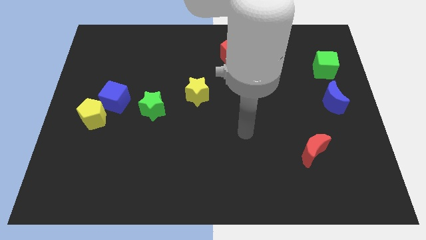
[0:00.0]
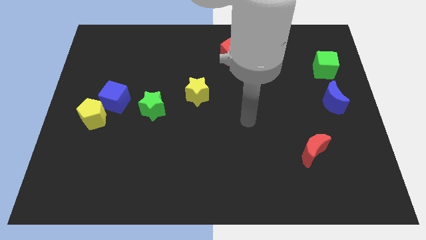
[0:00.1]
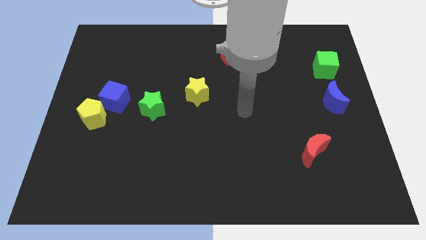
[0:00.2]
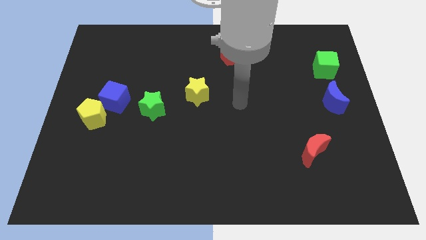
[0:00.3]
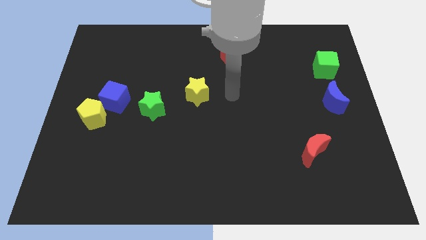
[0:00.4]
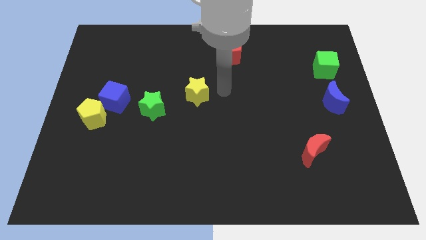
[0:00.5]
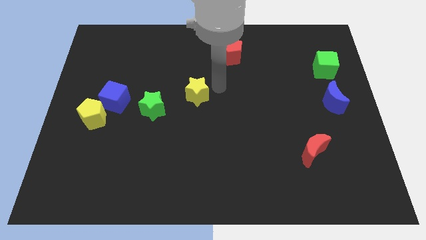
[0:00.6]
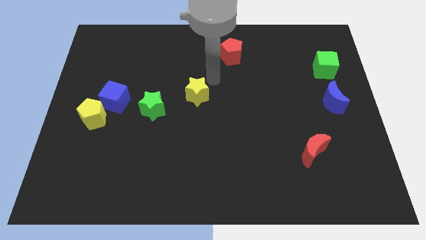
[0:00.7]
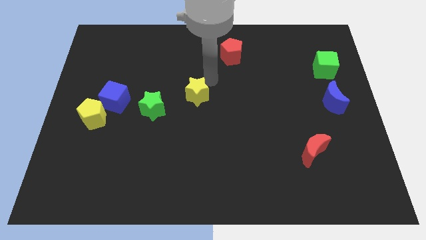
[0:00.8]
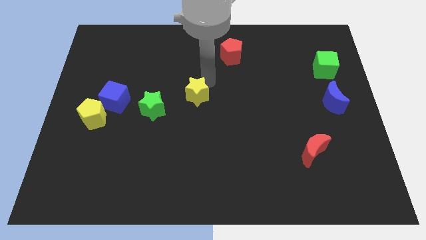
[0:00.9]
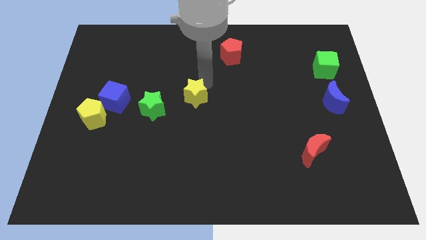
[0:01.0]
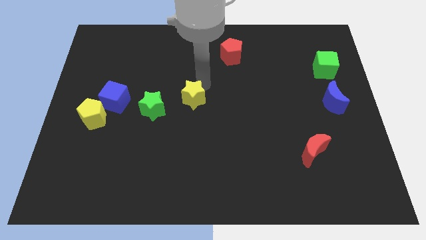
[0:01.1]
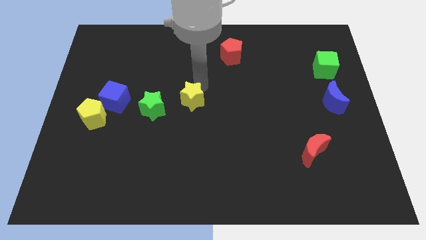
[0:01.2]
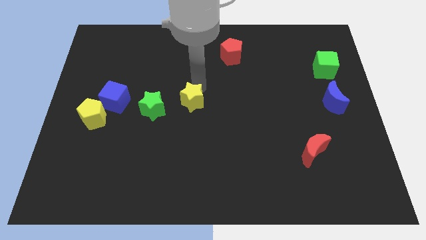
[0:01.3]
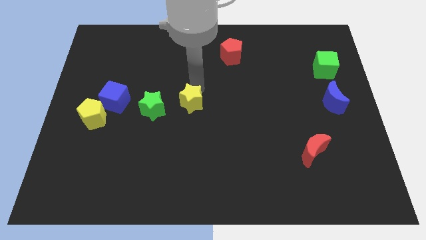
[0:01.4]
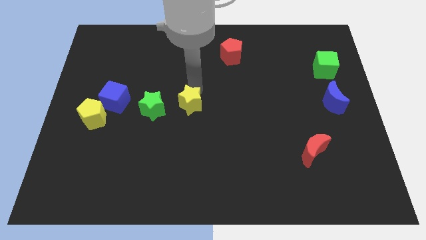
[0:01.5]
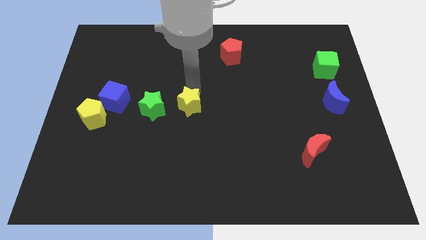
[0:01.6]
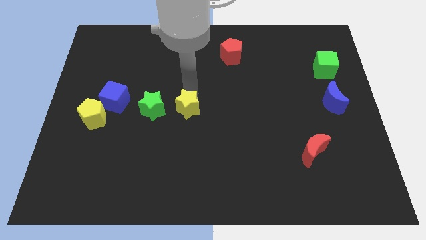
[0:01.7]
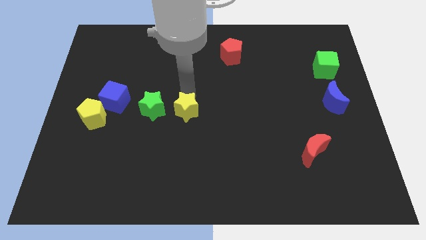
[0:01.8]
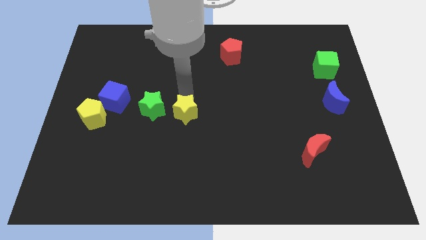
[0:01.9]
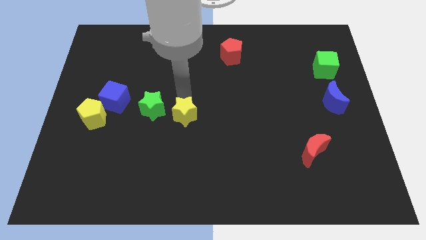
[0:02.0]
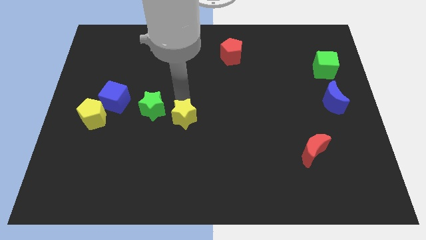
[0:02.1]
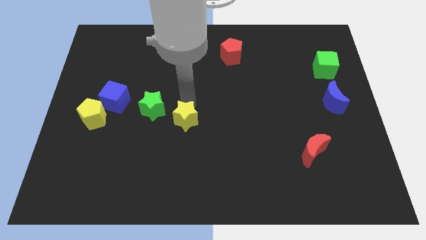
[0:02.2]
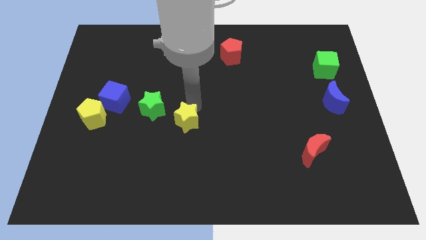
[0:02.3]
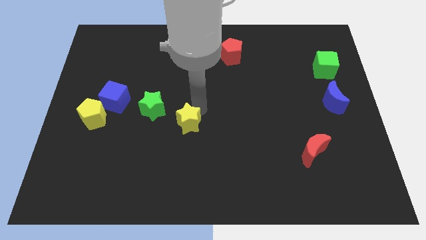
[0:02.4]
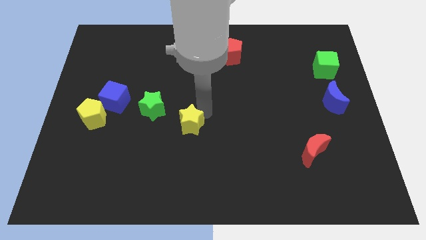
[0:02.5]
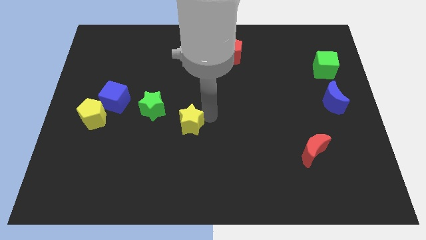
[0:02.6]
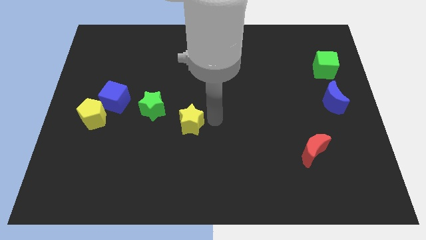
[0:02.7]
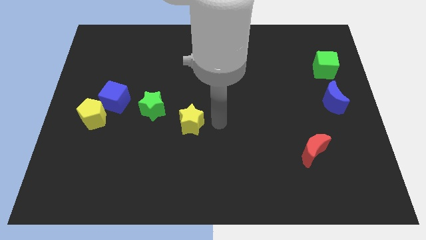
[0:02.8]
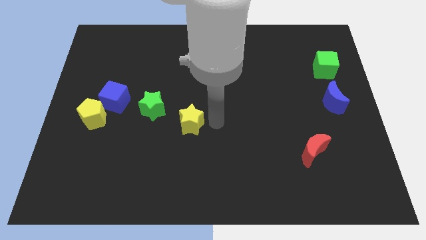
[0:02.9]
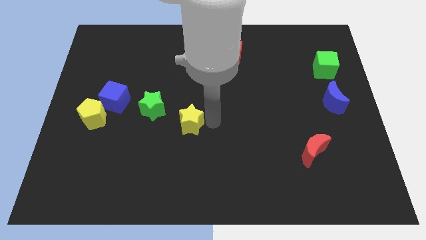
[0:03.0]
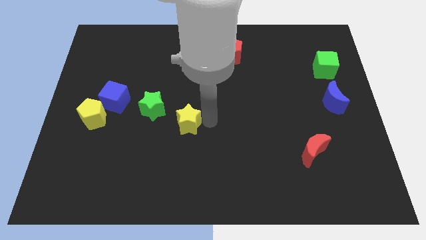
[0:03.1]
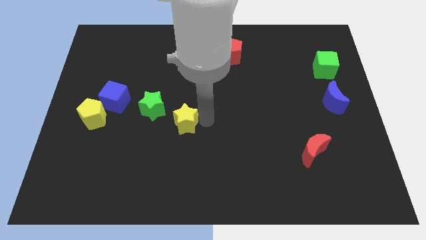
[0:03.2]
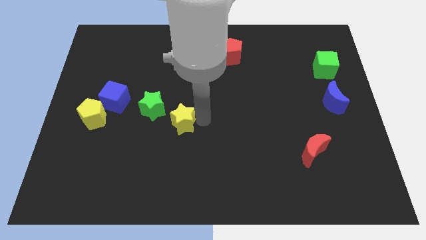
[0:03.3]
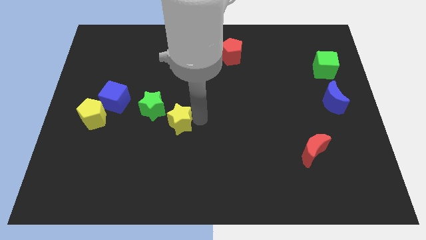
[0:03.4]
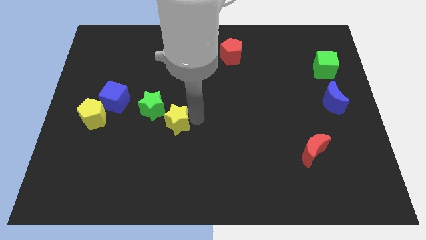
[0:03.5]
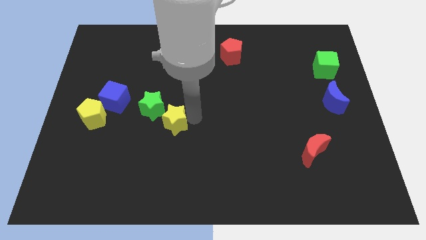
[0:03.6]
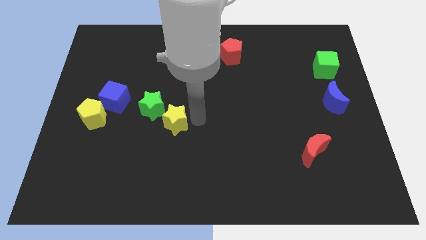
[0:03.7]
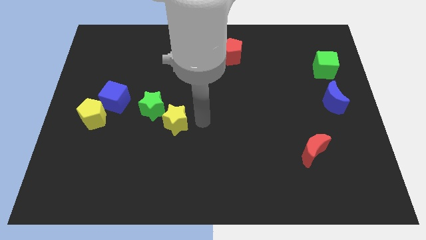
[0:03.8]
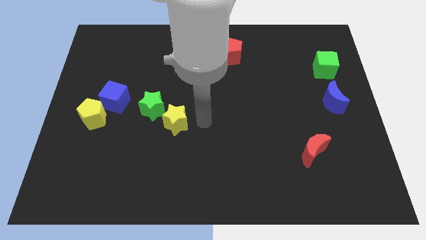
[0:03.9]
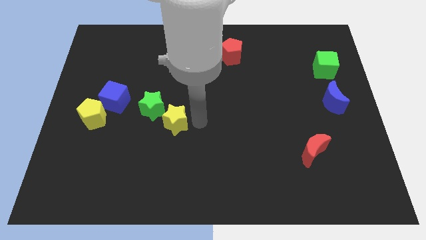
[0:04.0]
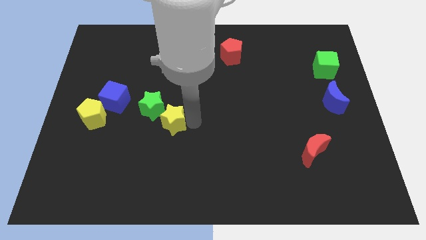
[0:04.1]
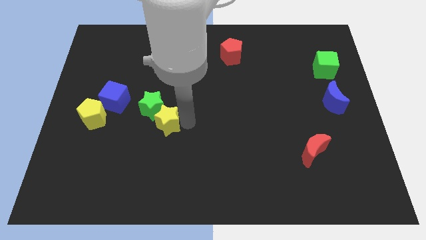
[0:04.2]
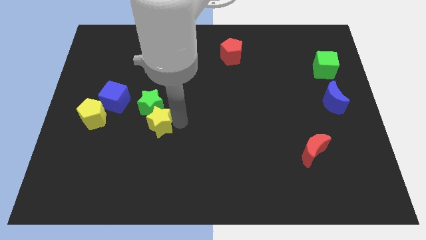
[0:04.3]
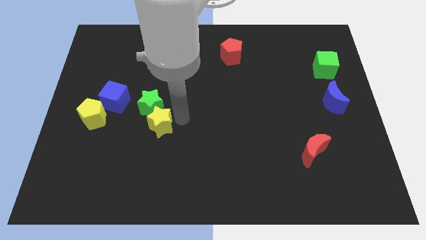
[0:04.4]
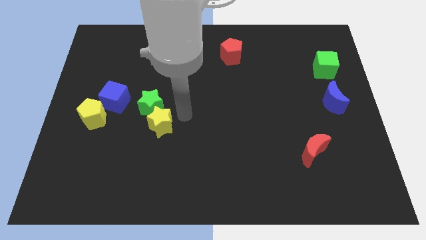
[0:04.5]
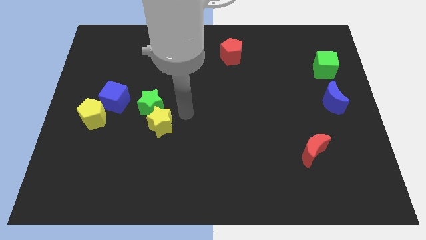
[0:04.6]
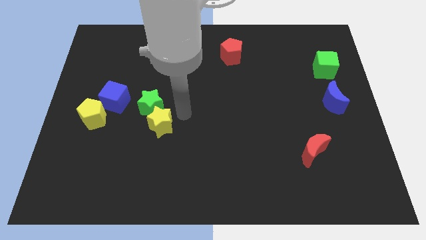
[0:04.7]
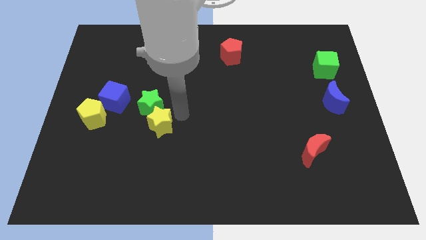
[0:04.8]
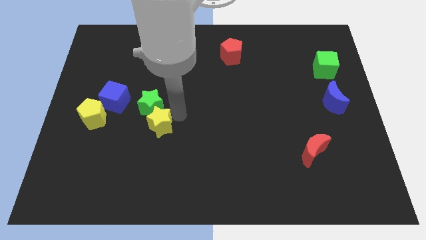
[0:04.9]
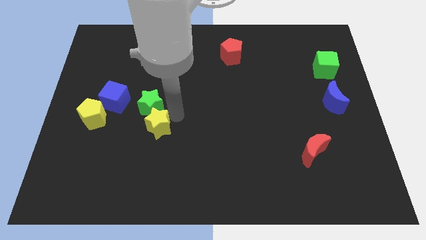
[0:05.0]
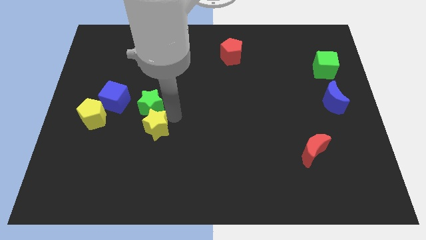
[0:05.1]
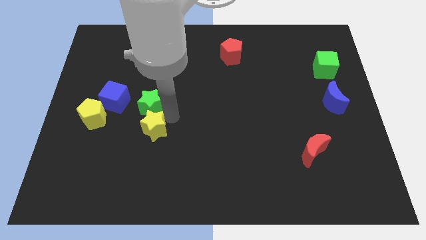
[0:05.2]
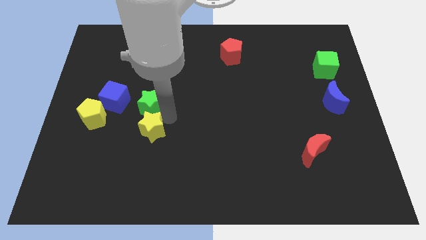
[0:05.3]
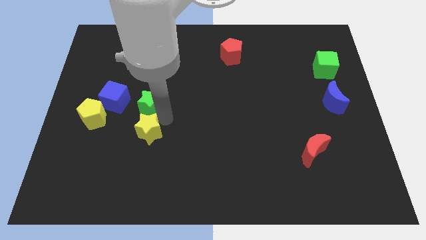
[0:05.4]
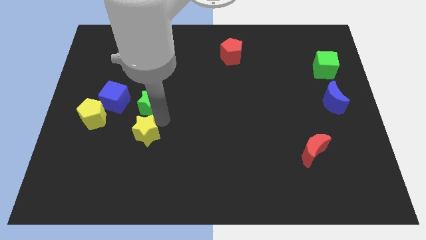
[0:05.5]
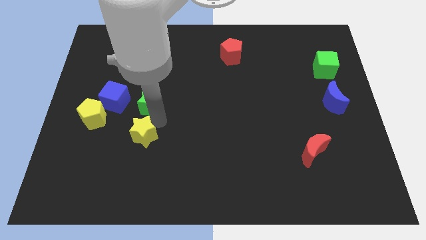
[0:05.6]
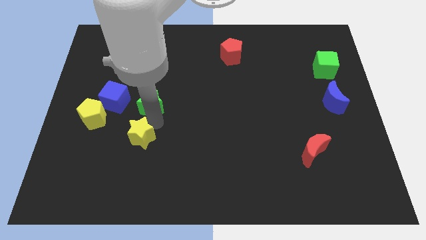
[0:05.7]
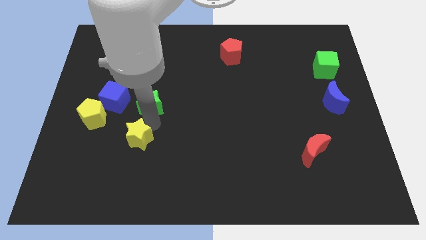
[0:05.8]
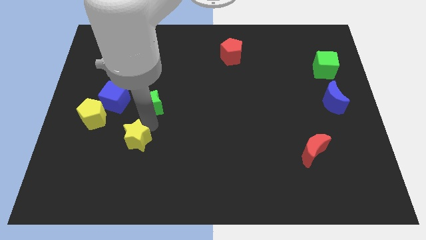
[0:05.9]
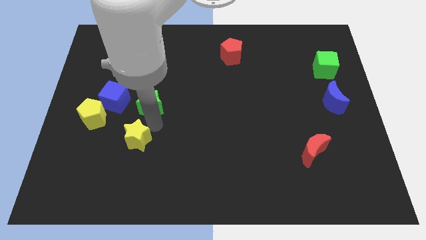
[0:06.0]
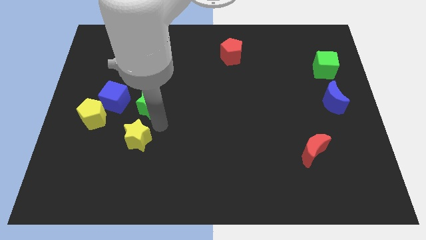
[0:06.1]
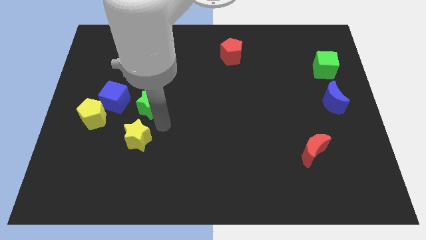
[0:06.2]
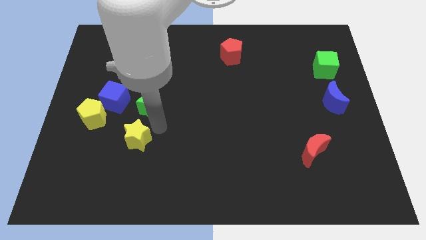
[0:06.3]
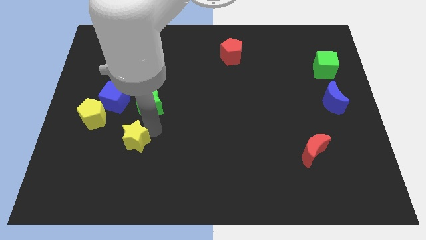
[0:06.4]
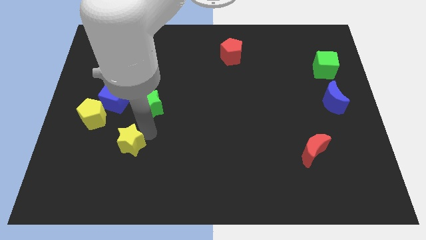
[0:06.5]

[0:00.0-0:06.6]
push the yellow star downwards and to the left

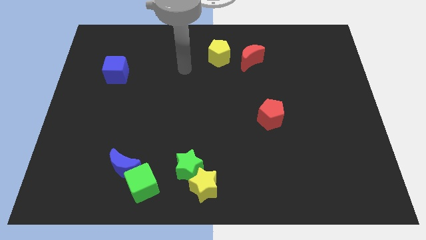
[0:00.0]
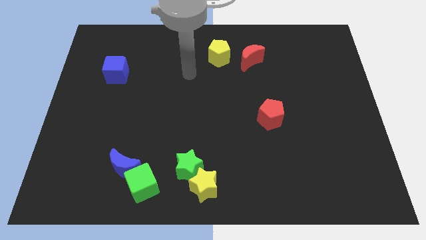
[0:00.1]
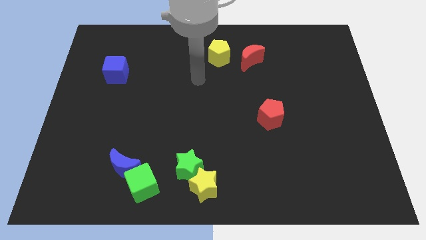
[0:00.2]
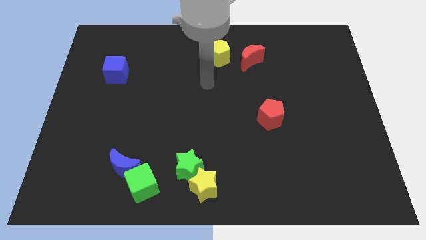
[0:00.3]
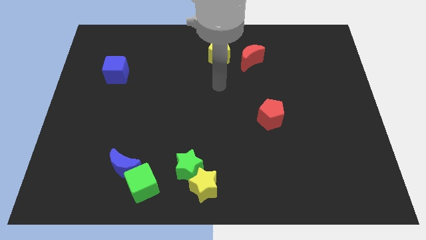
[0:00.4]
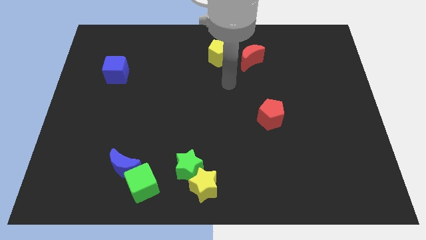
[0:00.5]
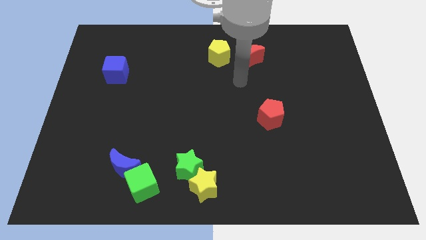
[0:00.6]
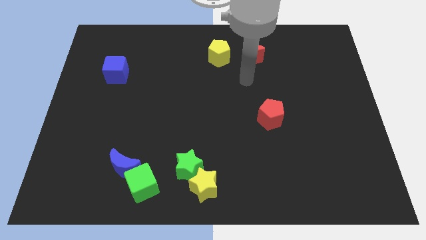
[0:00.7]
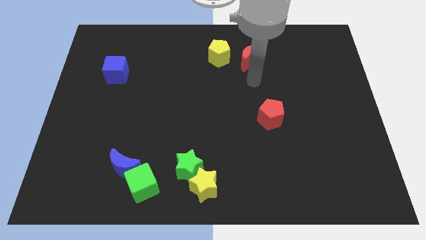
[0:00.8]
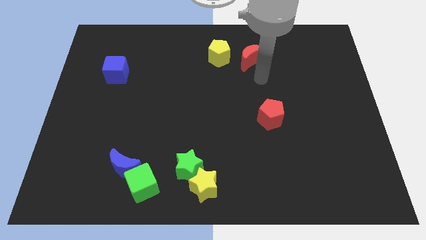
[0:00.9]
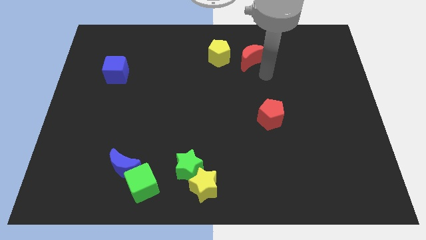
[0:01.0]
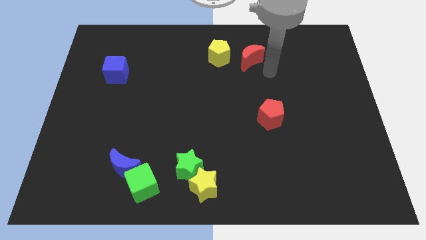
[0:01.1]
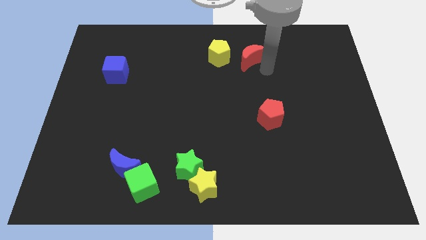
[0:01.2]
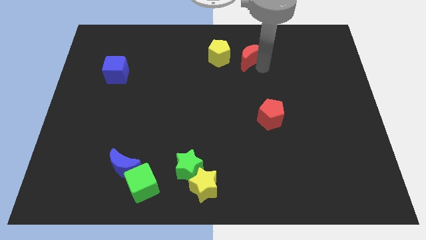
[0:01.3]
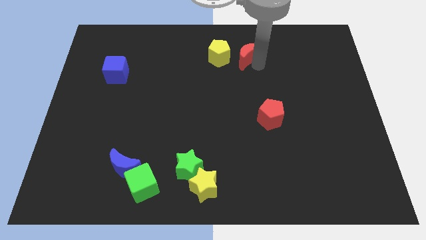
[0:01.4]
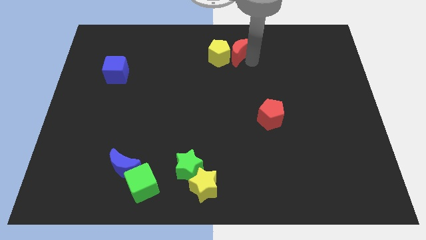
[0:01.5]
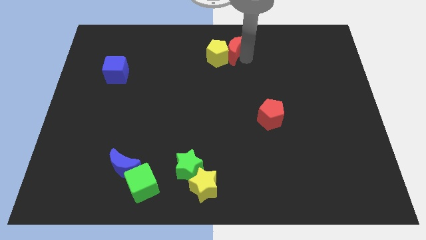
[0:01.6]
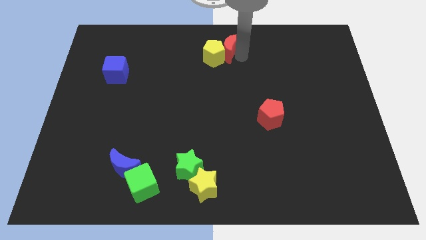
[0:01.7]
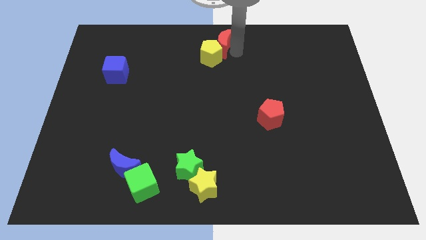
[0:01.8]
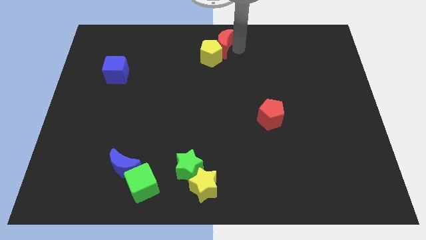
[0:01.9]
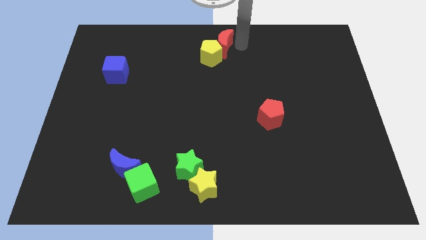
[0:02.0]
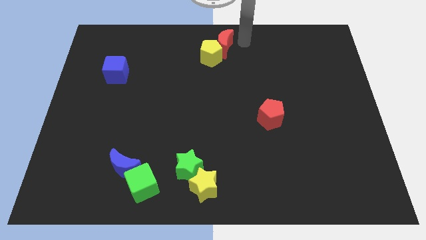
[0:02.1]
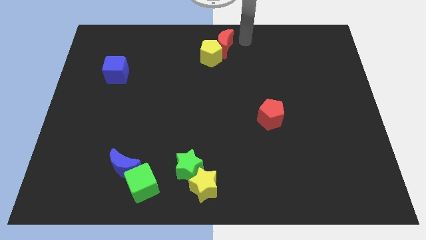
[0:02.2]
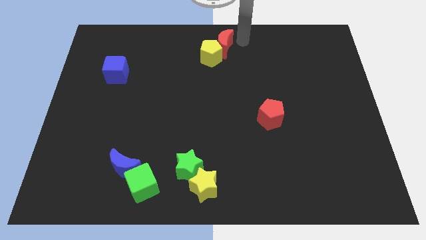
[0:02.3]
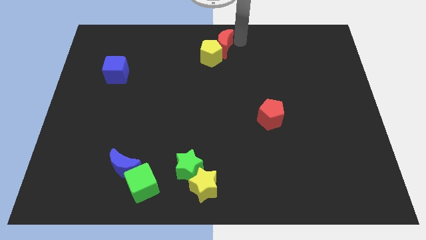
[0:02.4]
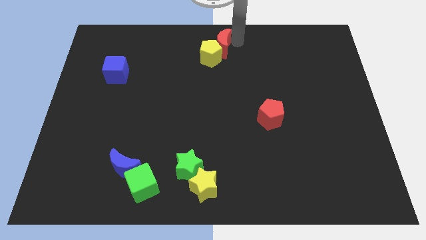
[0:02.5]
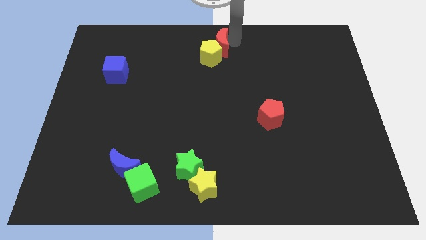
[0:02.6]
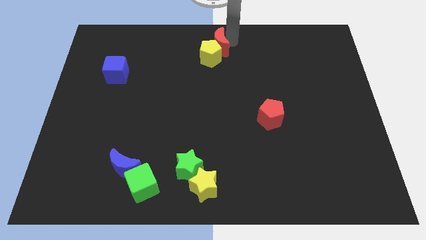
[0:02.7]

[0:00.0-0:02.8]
slightly slide the red moon left
